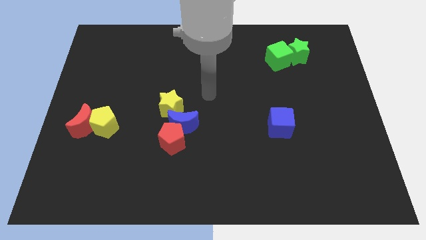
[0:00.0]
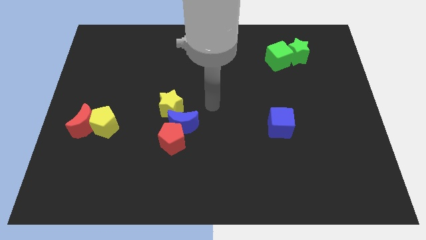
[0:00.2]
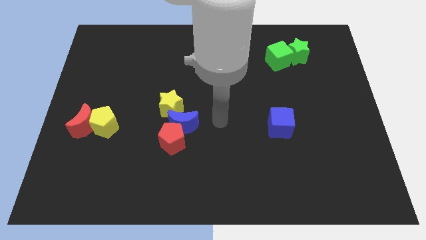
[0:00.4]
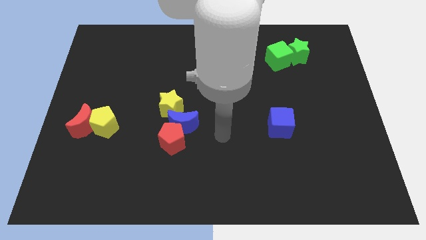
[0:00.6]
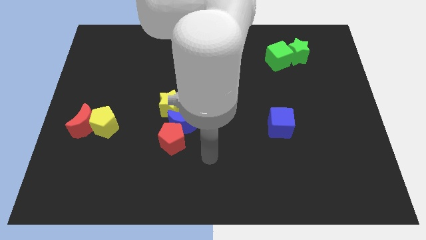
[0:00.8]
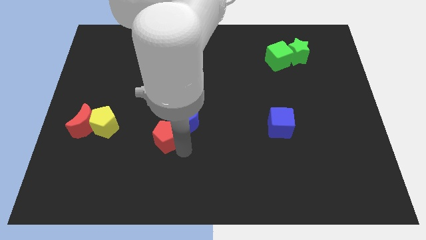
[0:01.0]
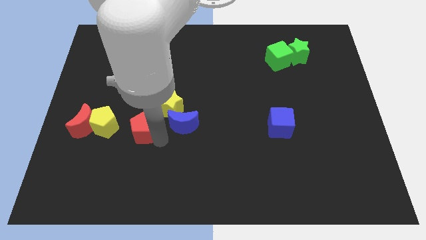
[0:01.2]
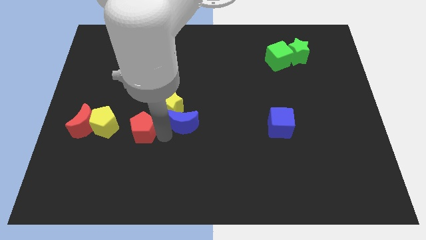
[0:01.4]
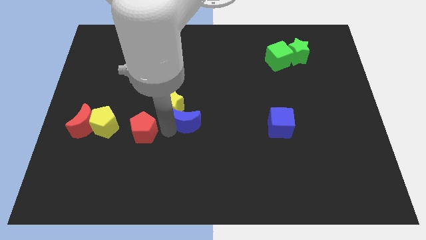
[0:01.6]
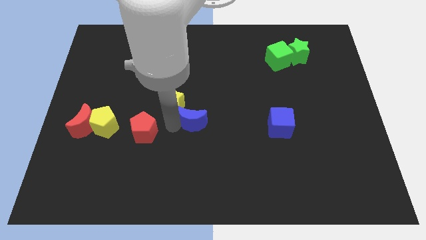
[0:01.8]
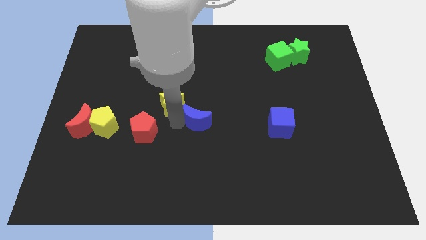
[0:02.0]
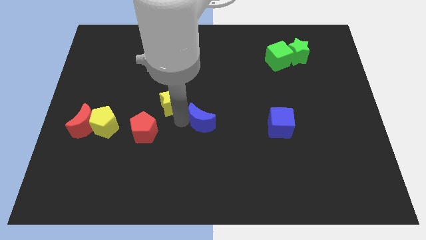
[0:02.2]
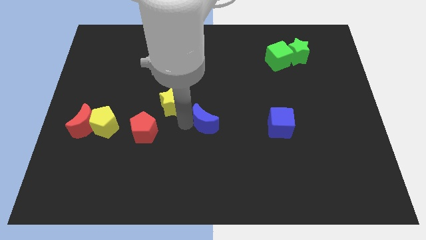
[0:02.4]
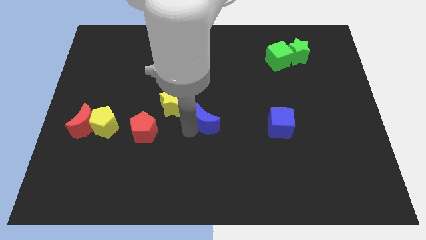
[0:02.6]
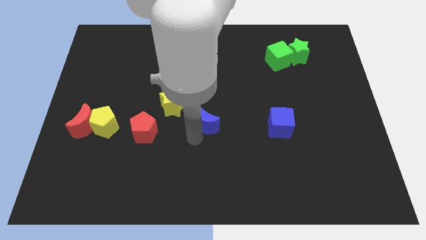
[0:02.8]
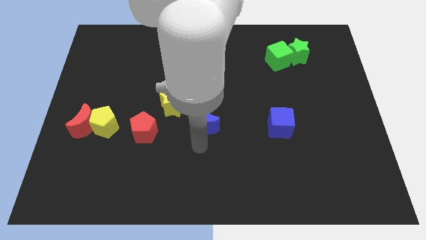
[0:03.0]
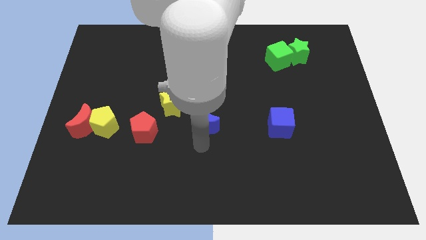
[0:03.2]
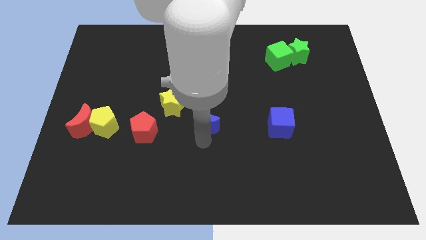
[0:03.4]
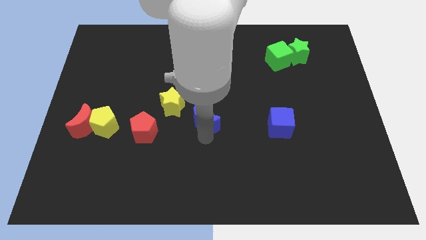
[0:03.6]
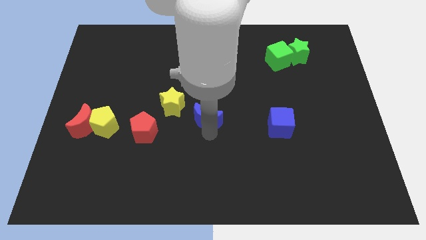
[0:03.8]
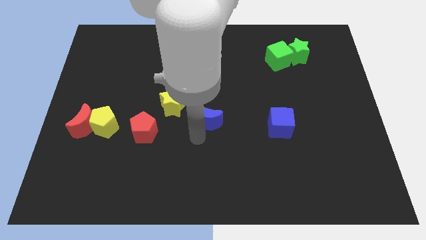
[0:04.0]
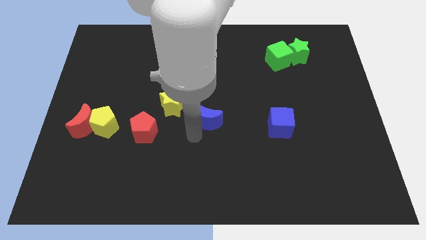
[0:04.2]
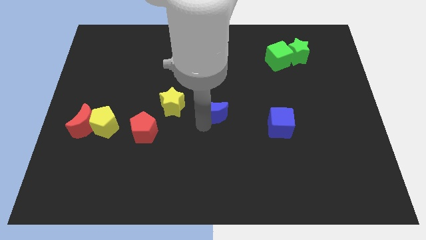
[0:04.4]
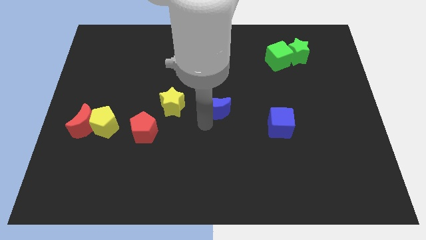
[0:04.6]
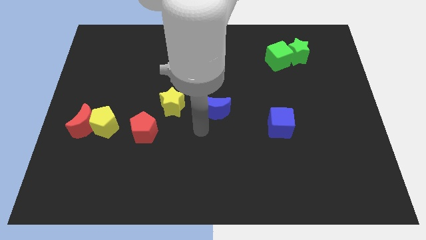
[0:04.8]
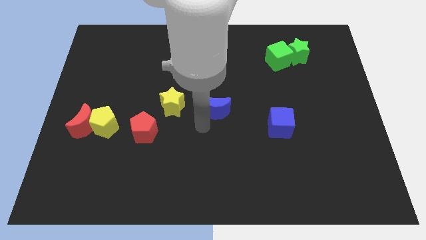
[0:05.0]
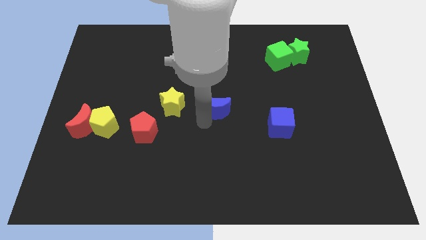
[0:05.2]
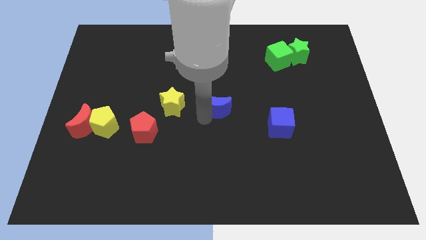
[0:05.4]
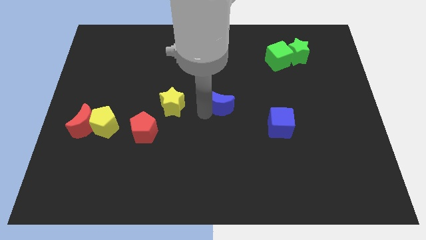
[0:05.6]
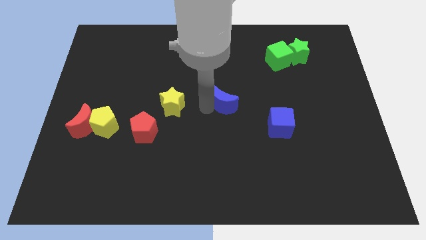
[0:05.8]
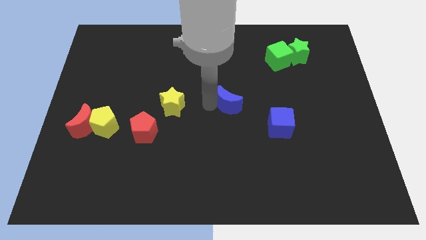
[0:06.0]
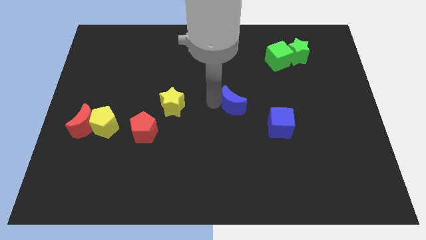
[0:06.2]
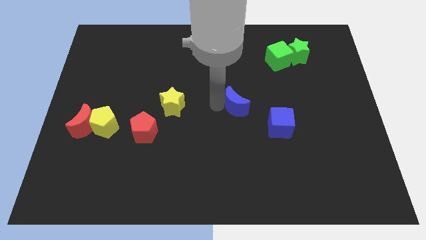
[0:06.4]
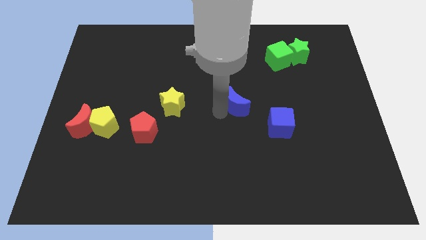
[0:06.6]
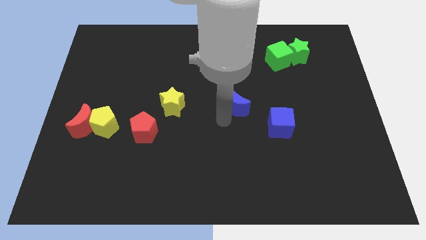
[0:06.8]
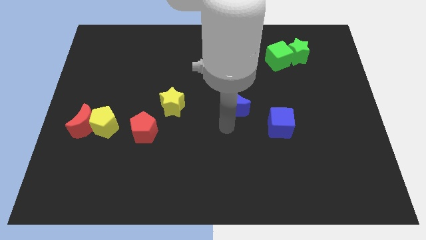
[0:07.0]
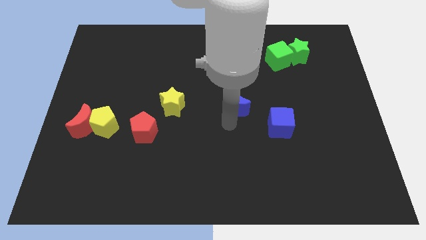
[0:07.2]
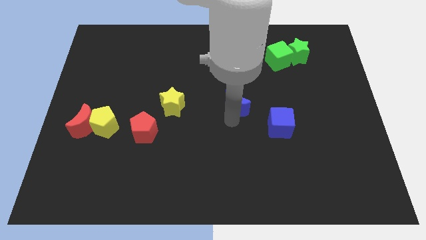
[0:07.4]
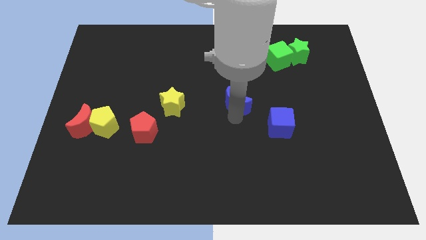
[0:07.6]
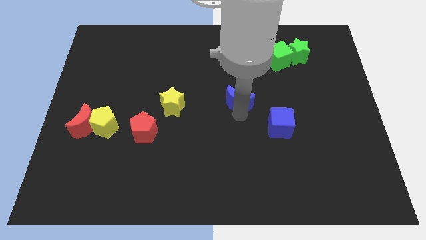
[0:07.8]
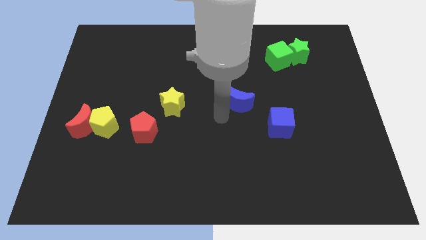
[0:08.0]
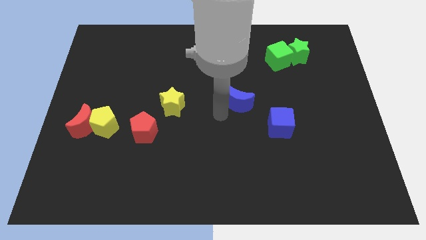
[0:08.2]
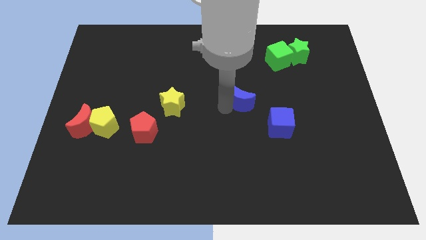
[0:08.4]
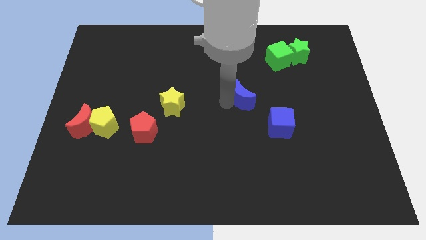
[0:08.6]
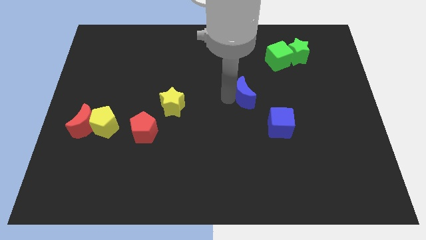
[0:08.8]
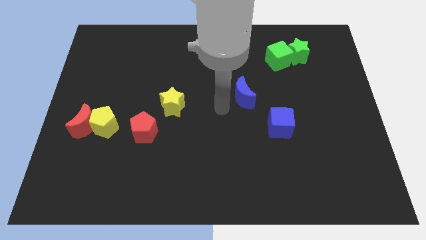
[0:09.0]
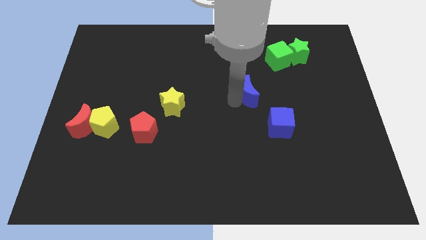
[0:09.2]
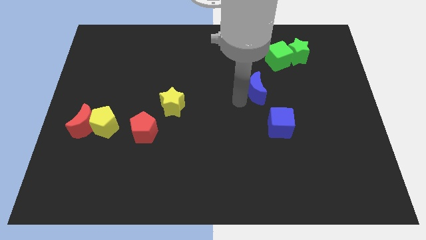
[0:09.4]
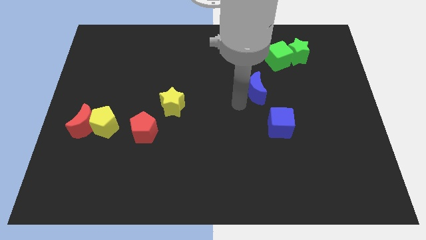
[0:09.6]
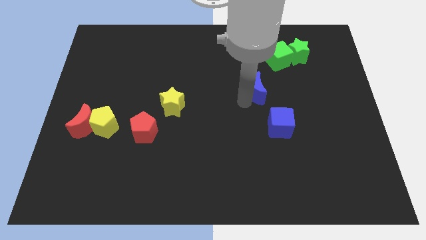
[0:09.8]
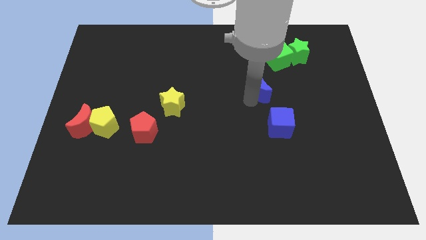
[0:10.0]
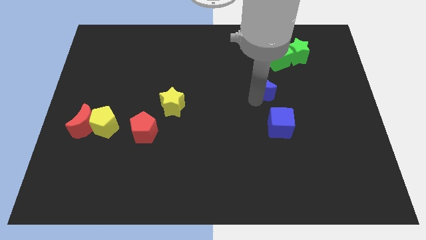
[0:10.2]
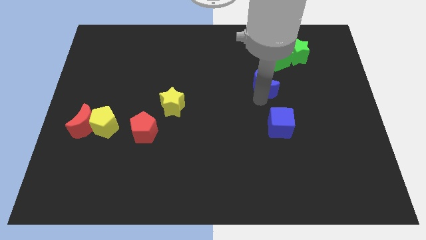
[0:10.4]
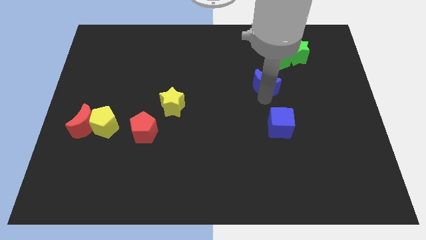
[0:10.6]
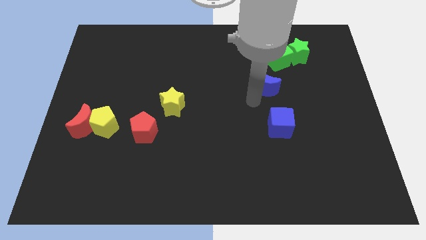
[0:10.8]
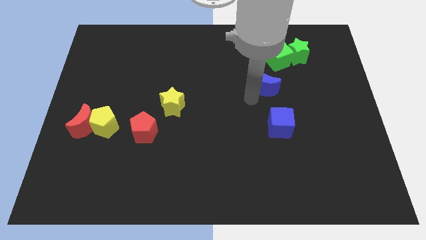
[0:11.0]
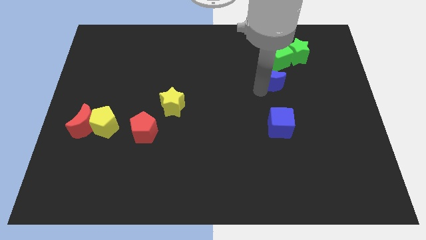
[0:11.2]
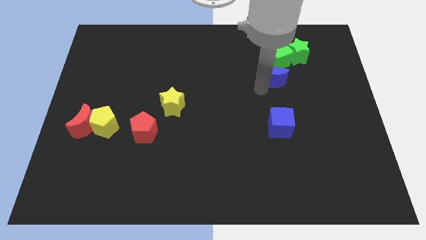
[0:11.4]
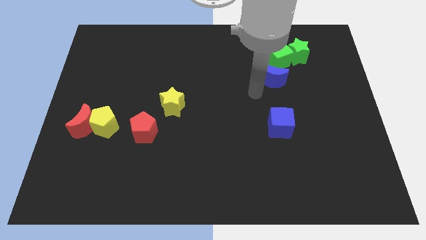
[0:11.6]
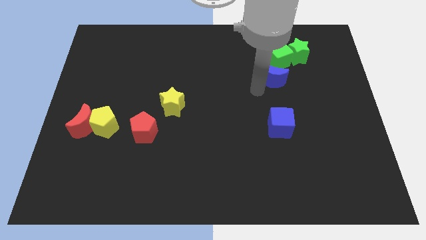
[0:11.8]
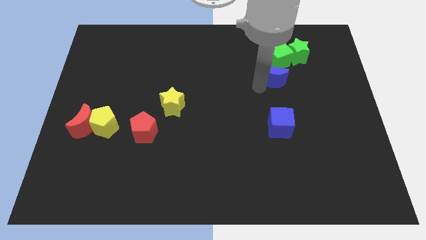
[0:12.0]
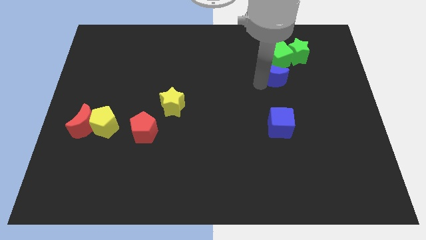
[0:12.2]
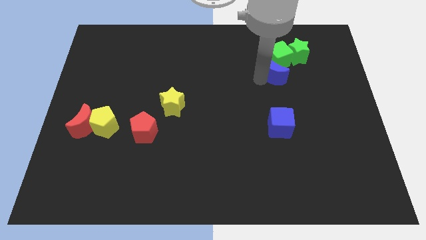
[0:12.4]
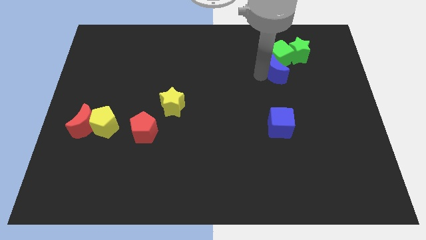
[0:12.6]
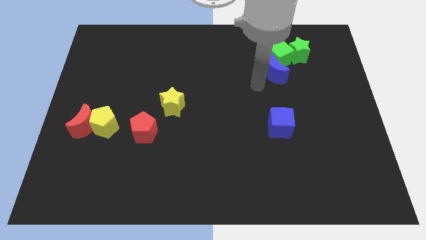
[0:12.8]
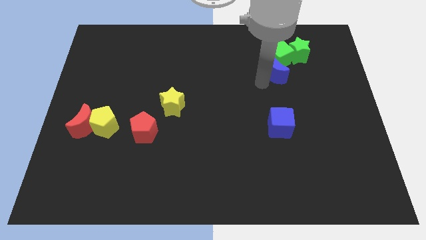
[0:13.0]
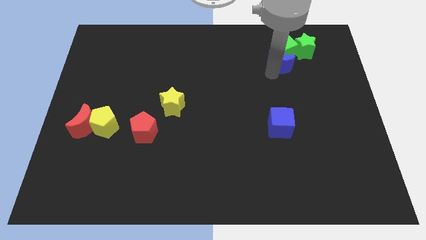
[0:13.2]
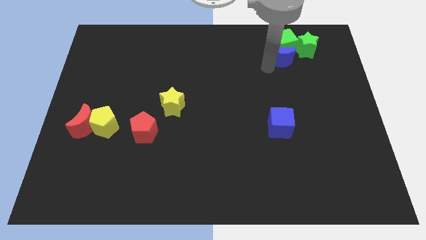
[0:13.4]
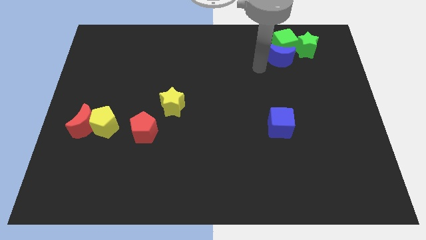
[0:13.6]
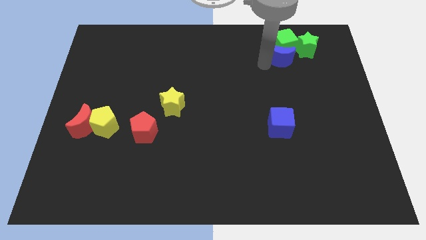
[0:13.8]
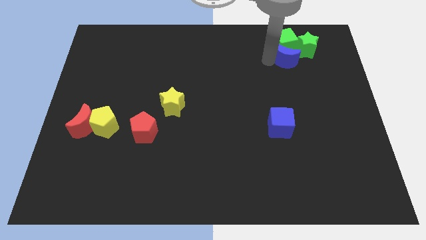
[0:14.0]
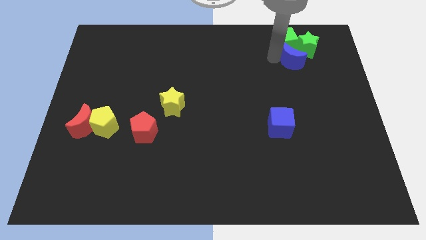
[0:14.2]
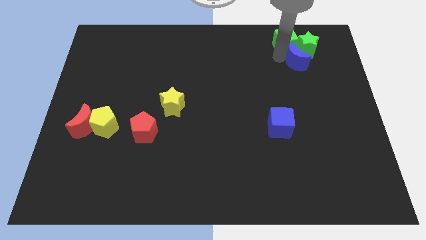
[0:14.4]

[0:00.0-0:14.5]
move the blue moon to the green star

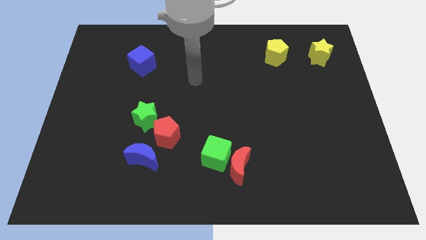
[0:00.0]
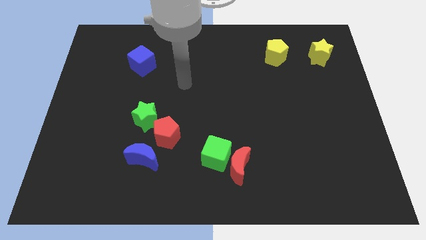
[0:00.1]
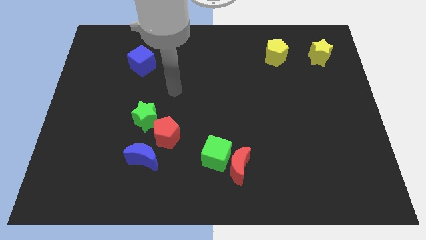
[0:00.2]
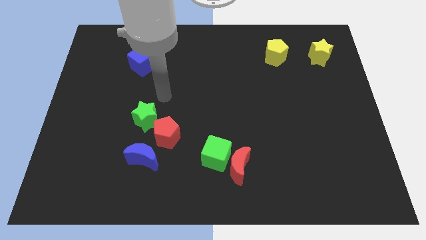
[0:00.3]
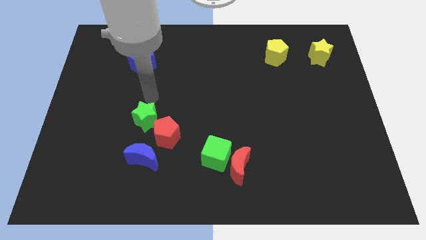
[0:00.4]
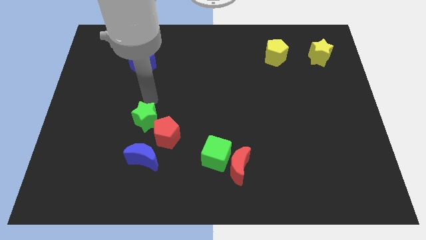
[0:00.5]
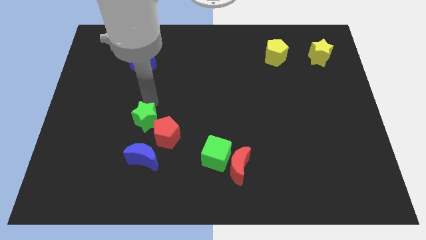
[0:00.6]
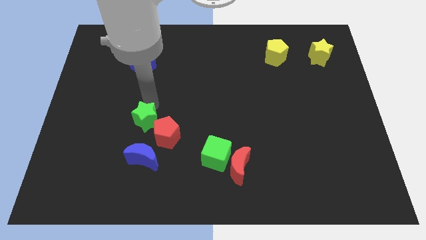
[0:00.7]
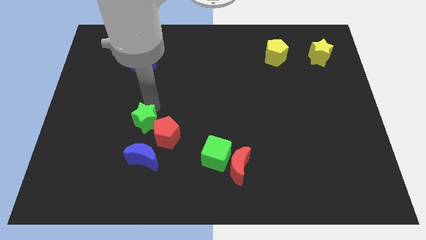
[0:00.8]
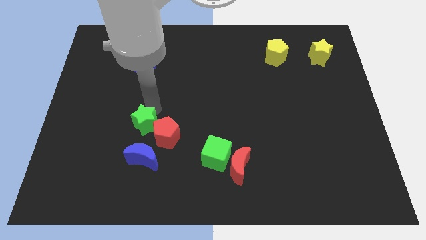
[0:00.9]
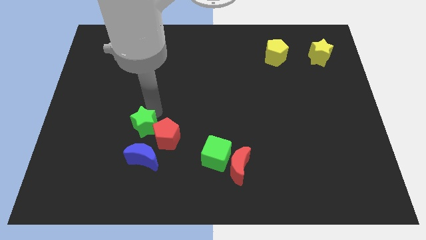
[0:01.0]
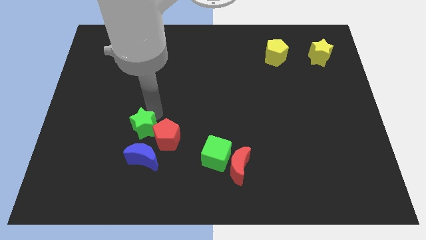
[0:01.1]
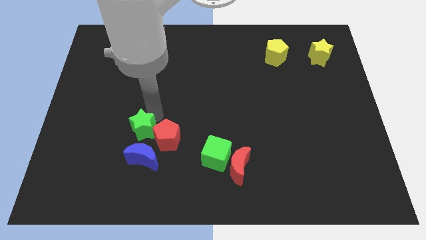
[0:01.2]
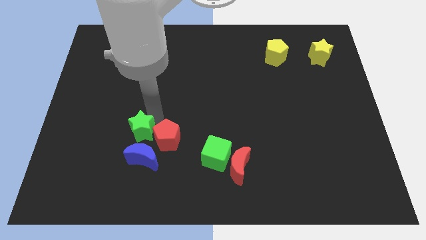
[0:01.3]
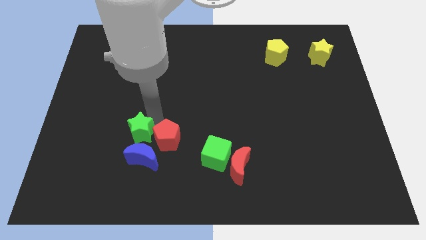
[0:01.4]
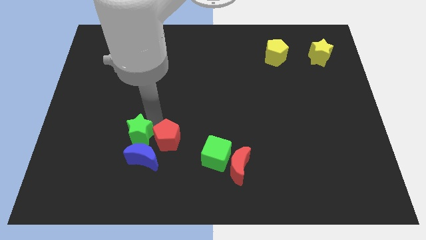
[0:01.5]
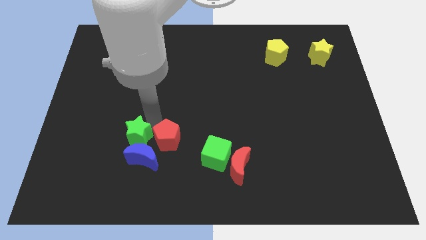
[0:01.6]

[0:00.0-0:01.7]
push the green star to the blue moon
